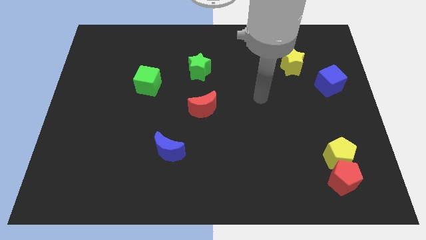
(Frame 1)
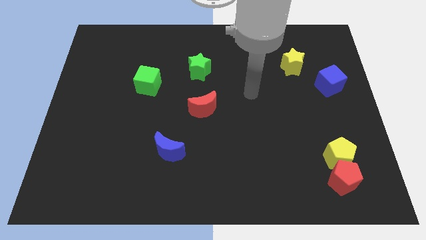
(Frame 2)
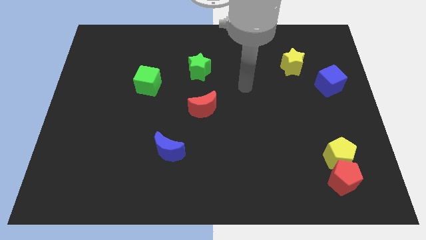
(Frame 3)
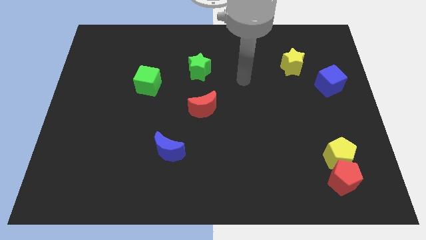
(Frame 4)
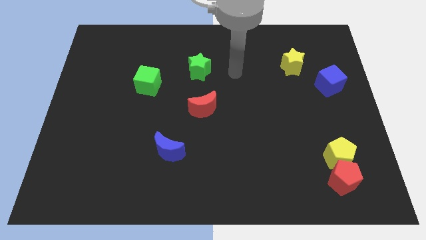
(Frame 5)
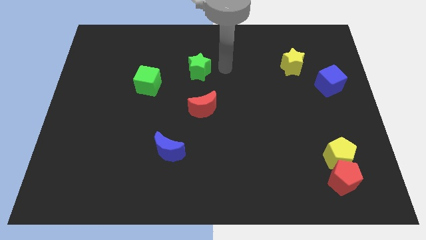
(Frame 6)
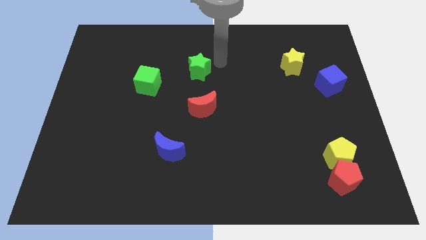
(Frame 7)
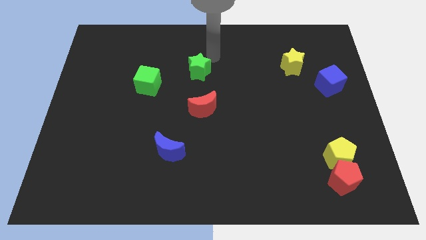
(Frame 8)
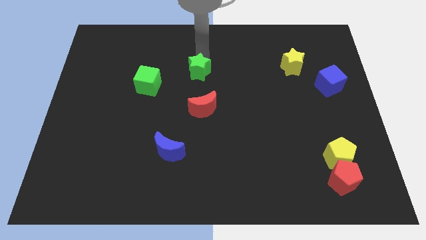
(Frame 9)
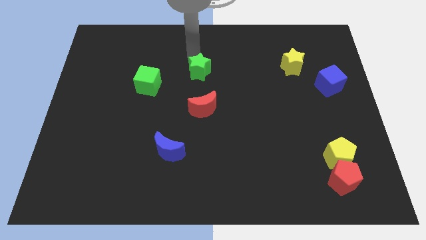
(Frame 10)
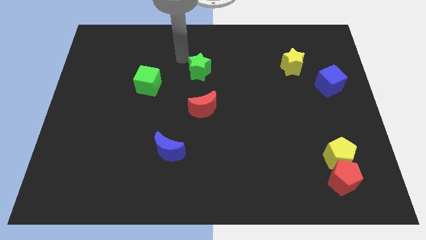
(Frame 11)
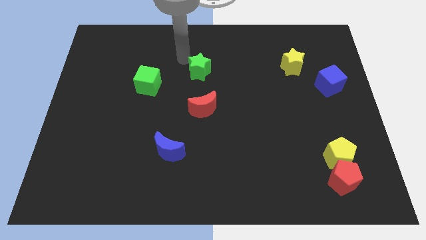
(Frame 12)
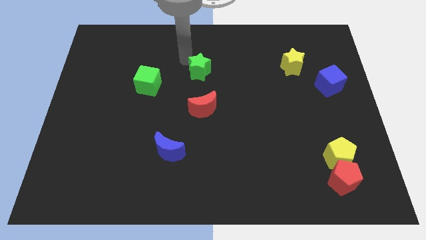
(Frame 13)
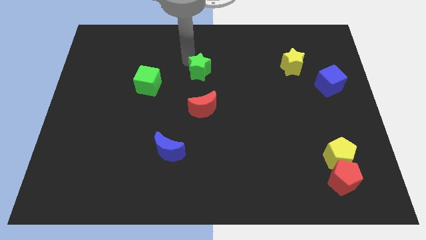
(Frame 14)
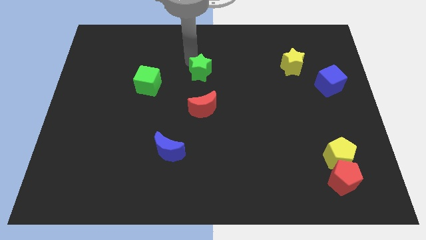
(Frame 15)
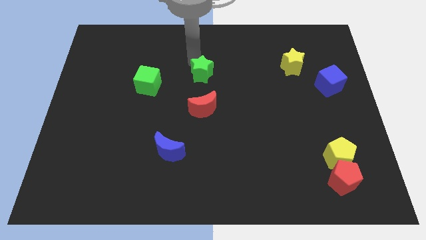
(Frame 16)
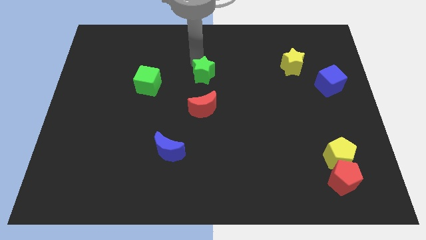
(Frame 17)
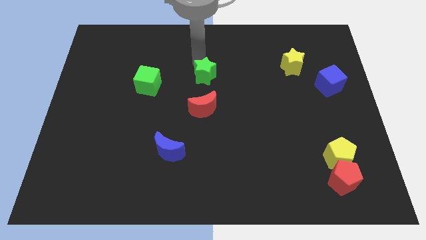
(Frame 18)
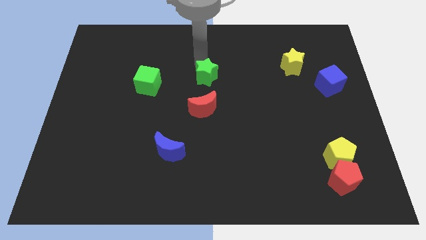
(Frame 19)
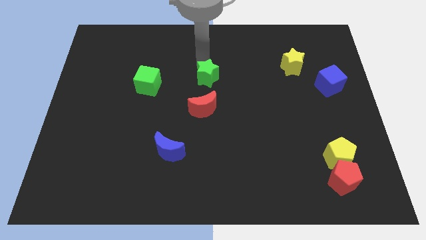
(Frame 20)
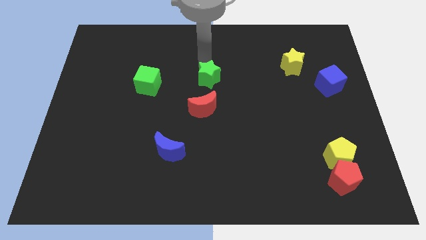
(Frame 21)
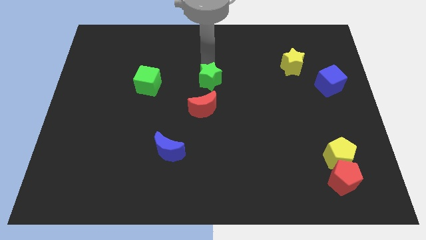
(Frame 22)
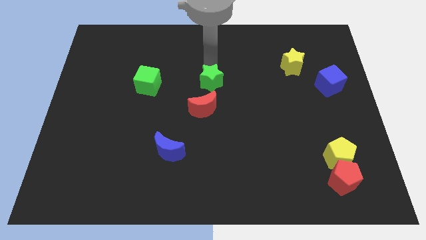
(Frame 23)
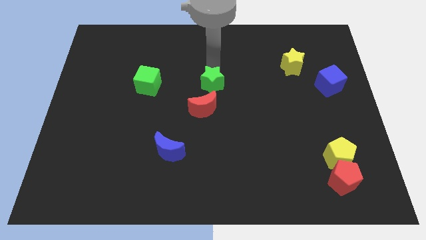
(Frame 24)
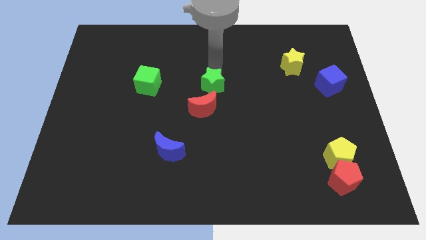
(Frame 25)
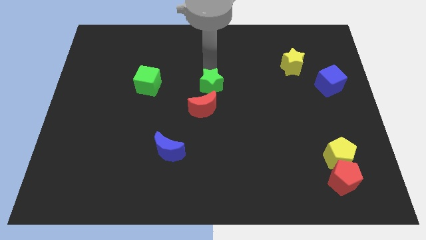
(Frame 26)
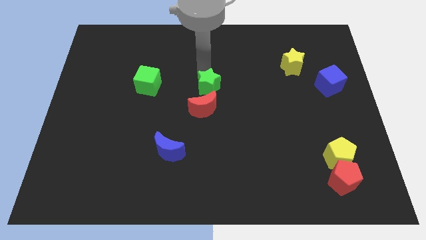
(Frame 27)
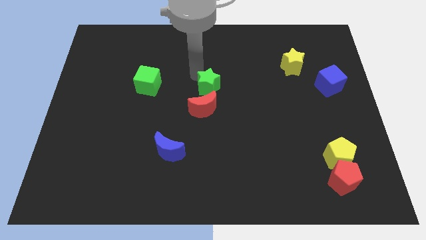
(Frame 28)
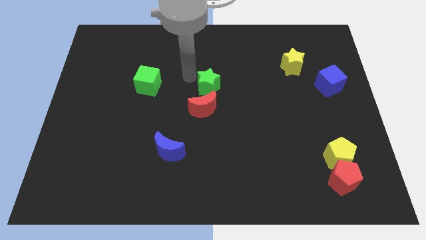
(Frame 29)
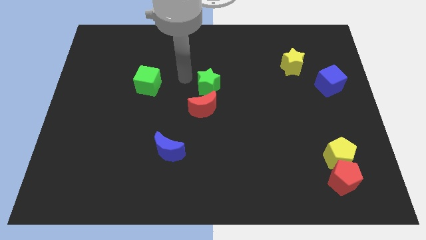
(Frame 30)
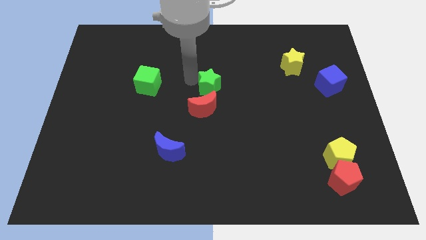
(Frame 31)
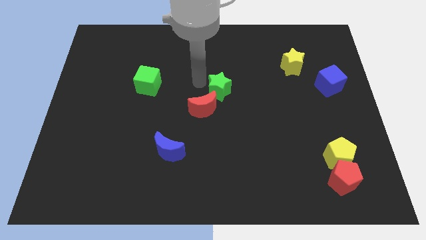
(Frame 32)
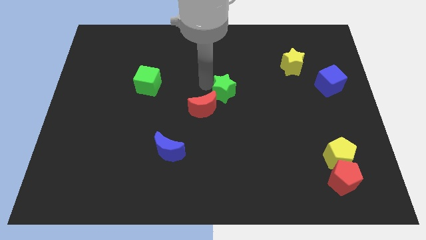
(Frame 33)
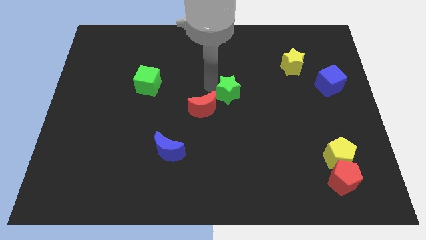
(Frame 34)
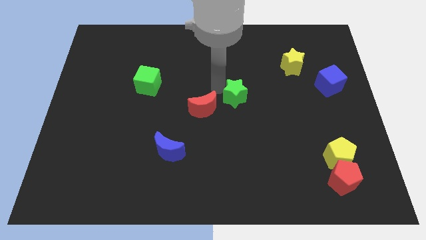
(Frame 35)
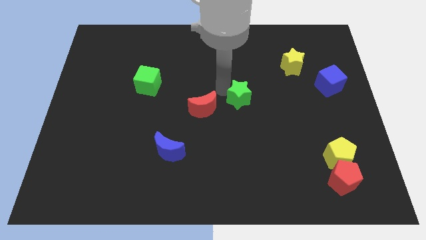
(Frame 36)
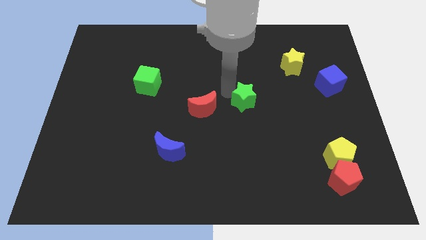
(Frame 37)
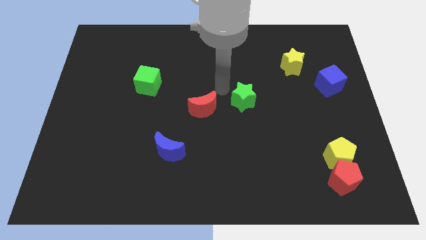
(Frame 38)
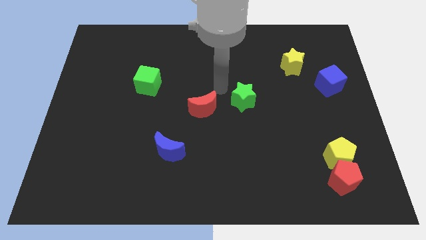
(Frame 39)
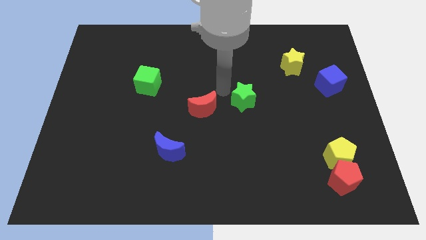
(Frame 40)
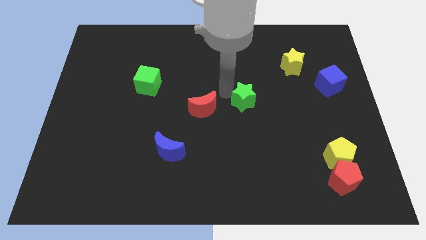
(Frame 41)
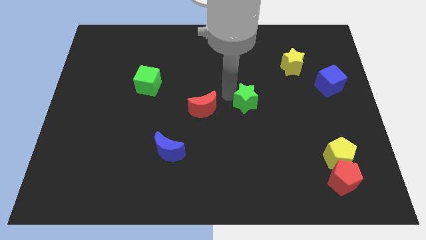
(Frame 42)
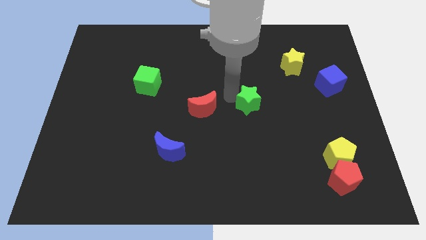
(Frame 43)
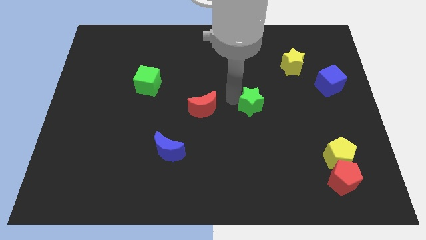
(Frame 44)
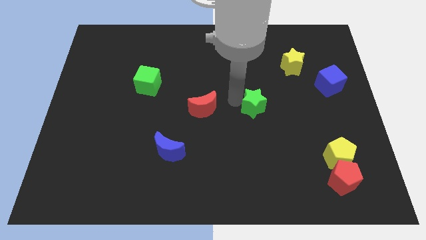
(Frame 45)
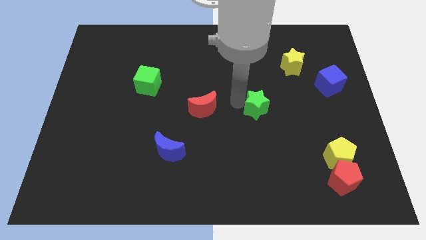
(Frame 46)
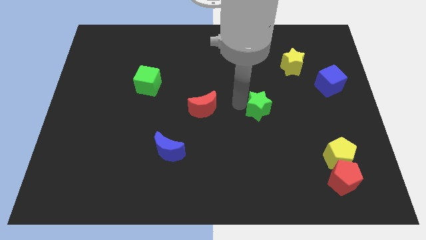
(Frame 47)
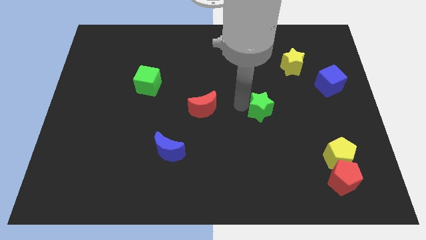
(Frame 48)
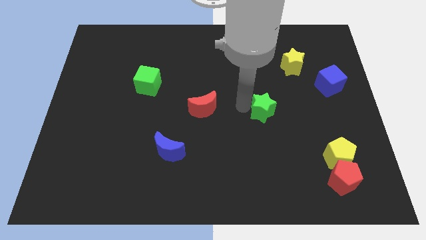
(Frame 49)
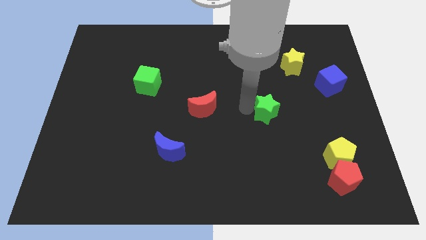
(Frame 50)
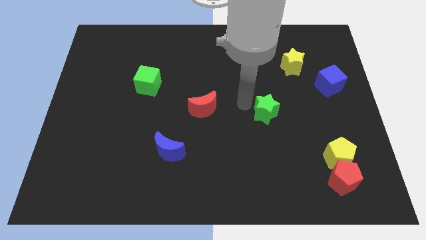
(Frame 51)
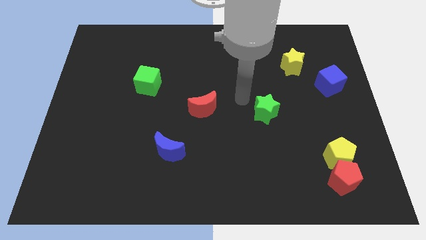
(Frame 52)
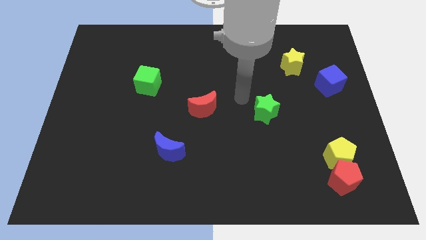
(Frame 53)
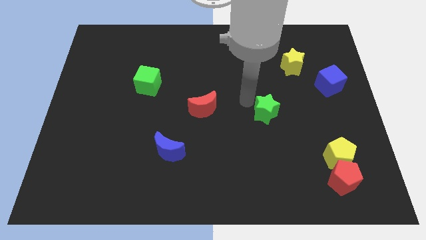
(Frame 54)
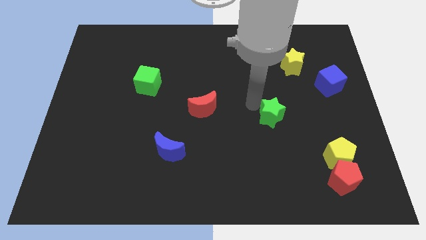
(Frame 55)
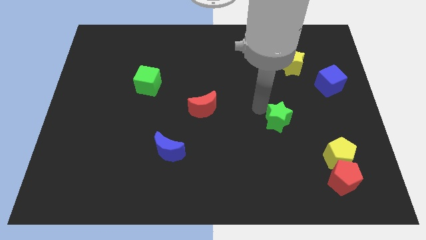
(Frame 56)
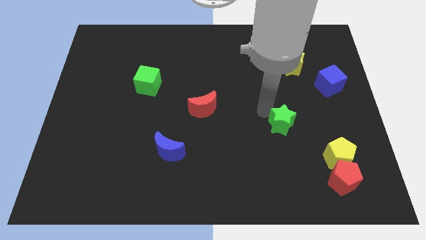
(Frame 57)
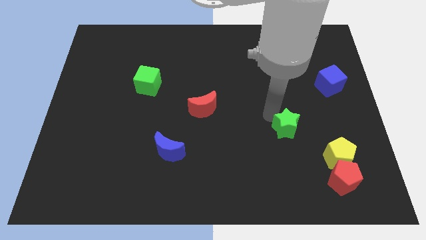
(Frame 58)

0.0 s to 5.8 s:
put the green star to the top left side of the yellow pentagon

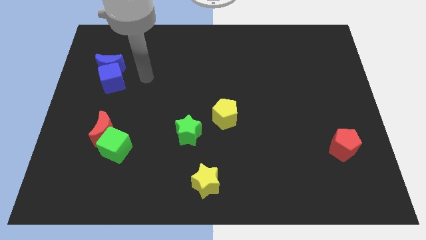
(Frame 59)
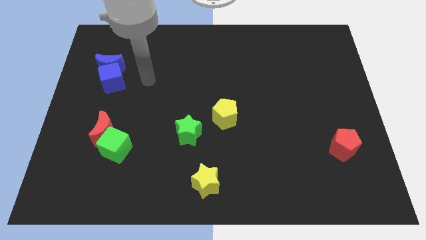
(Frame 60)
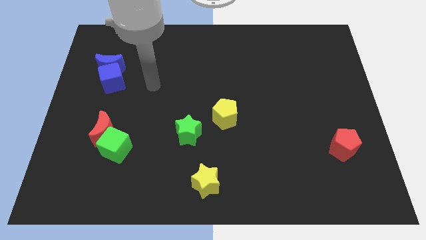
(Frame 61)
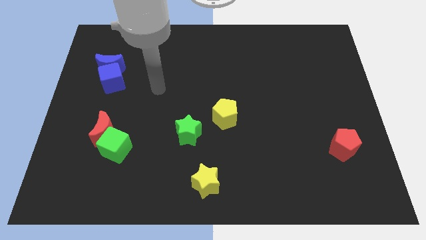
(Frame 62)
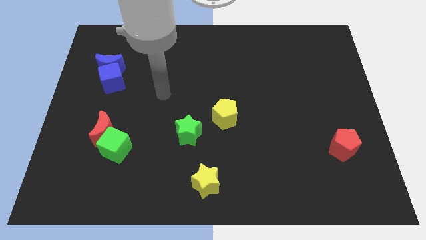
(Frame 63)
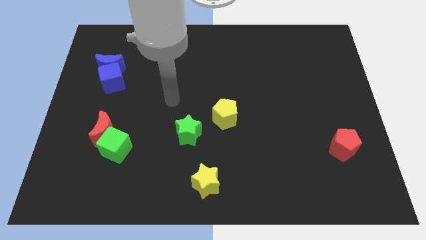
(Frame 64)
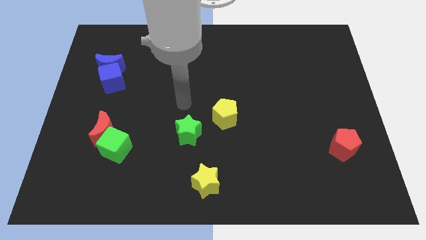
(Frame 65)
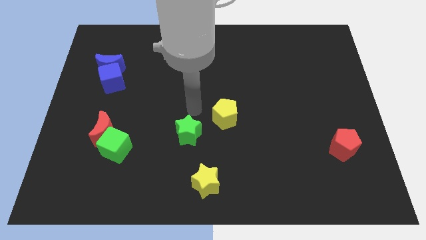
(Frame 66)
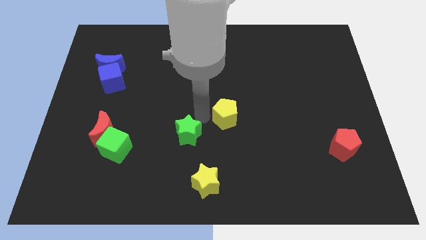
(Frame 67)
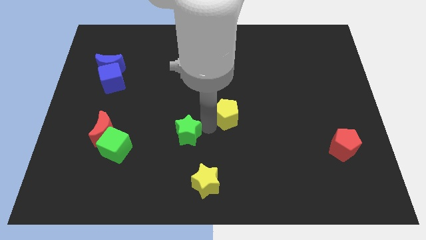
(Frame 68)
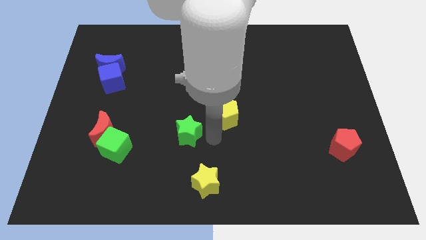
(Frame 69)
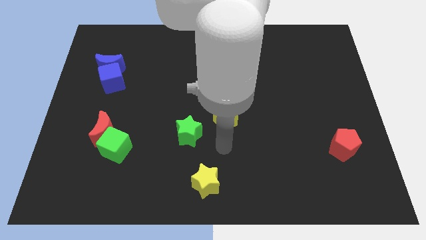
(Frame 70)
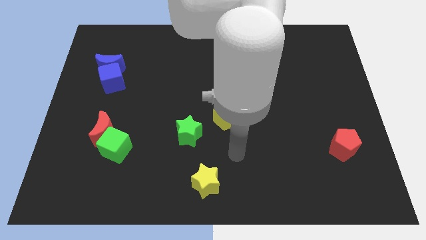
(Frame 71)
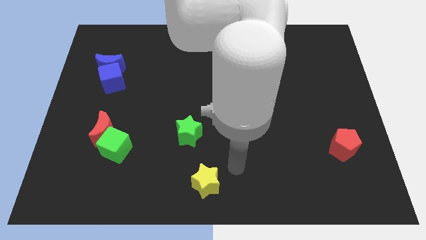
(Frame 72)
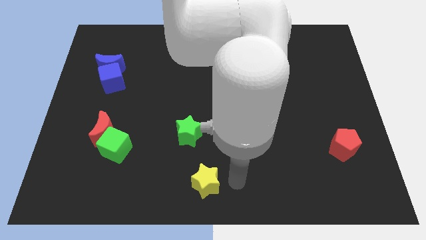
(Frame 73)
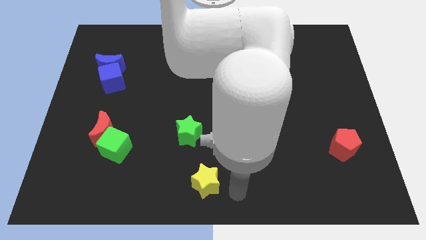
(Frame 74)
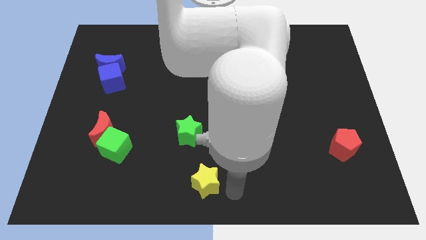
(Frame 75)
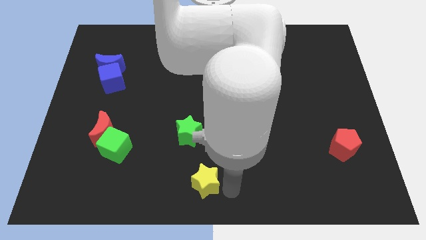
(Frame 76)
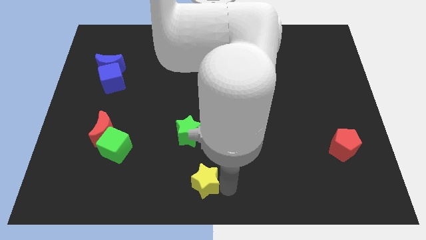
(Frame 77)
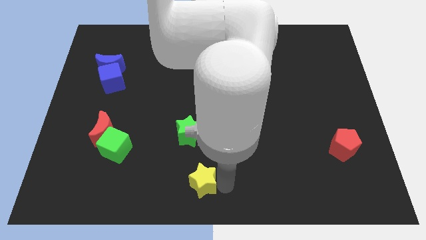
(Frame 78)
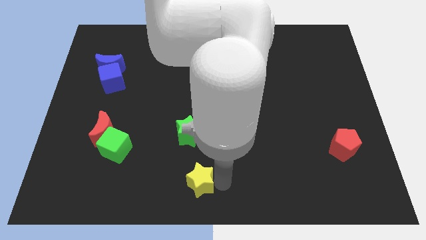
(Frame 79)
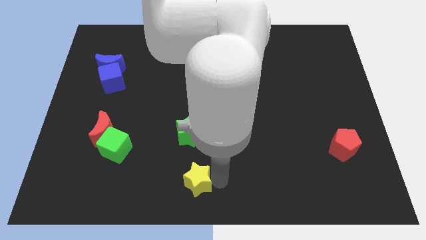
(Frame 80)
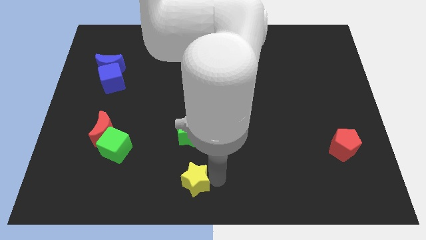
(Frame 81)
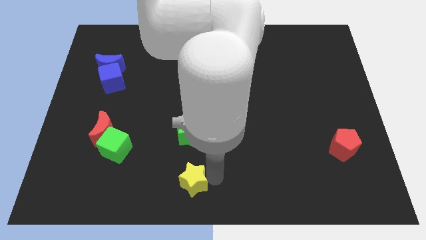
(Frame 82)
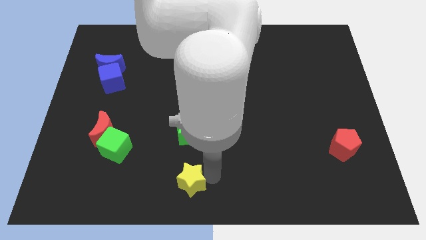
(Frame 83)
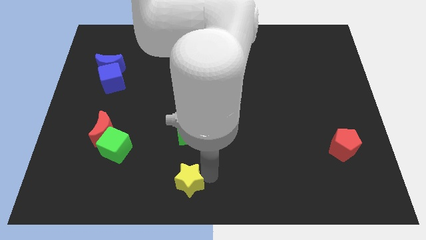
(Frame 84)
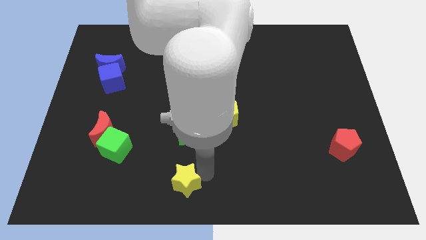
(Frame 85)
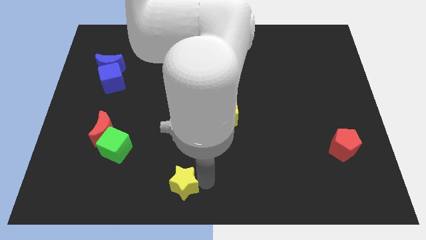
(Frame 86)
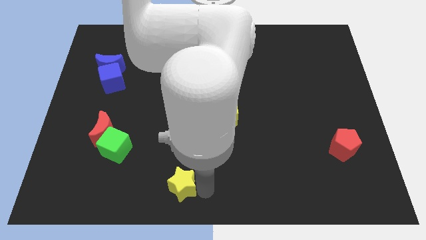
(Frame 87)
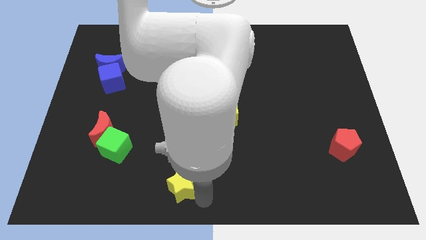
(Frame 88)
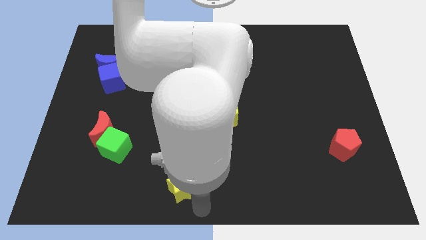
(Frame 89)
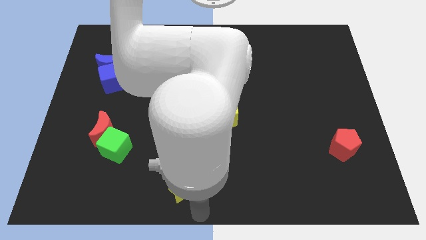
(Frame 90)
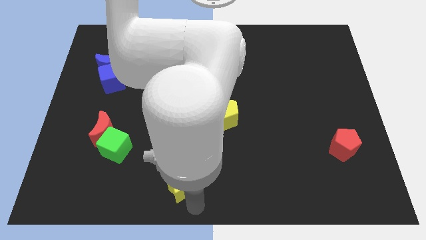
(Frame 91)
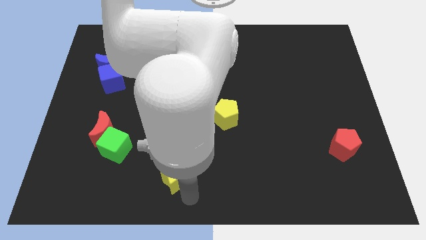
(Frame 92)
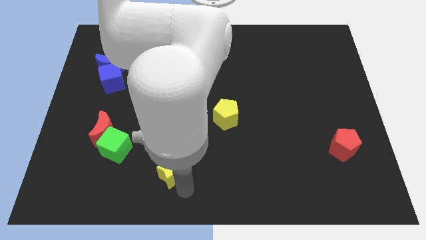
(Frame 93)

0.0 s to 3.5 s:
put the yellow star to the bottom left of the green star
